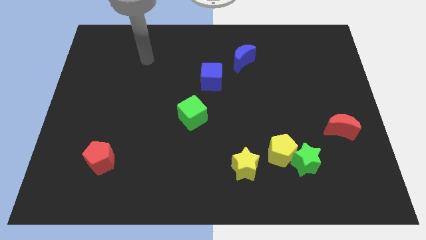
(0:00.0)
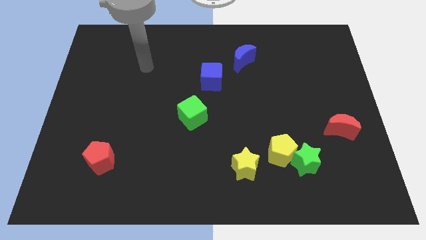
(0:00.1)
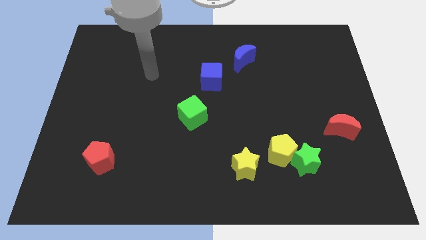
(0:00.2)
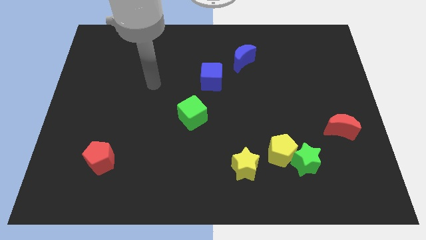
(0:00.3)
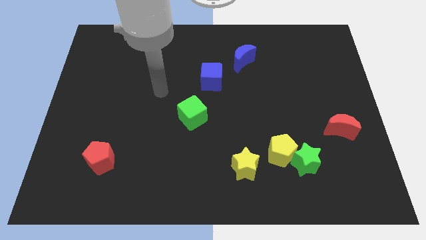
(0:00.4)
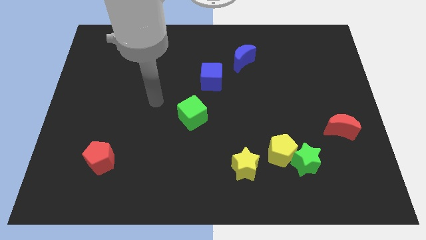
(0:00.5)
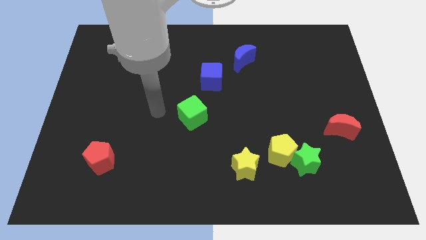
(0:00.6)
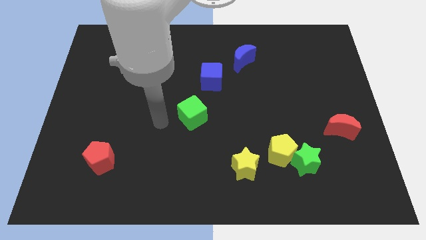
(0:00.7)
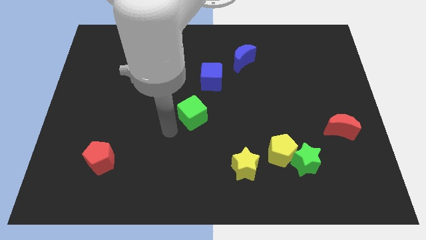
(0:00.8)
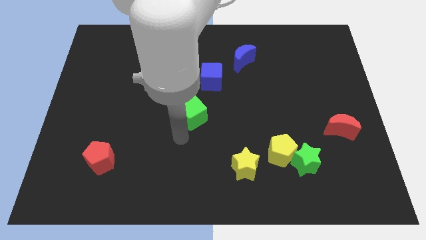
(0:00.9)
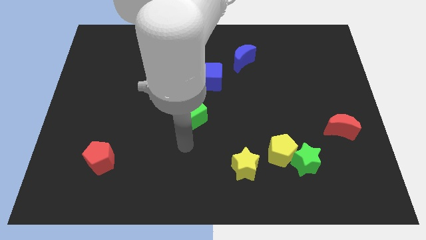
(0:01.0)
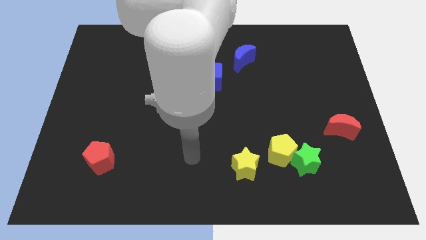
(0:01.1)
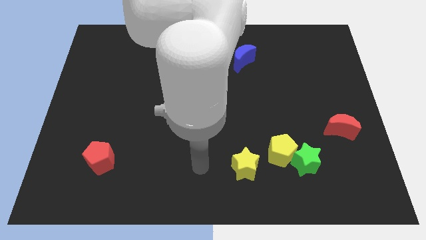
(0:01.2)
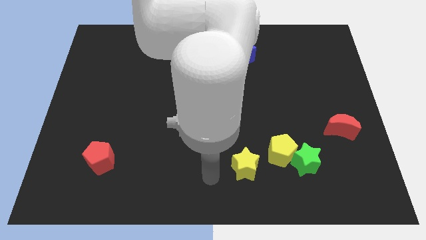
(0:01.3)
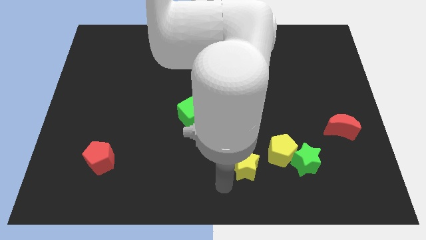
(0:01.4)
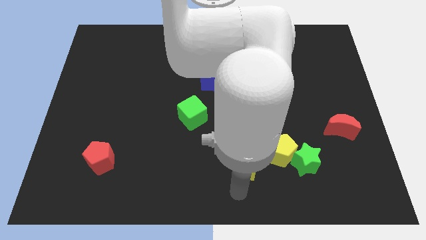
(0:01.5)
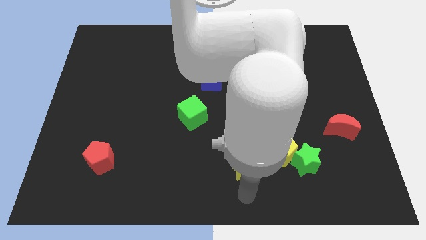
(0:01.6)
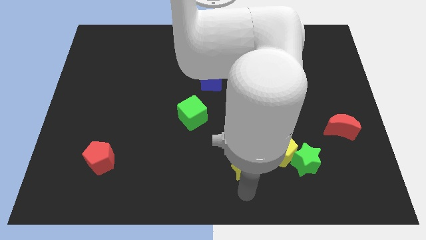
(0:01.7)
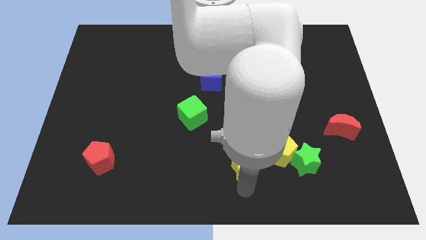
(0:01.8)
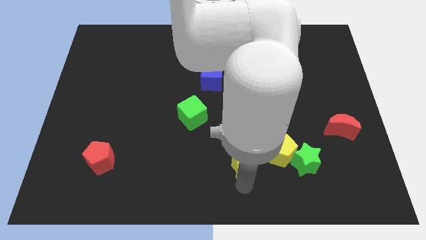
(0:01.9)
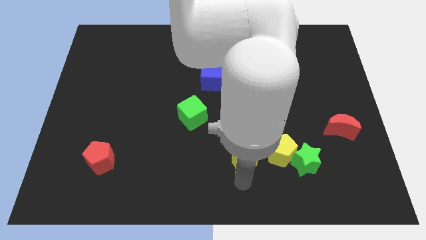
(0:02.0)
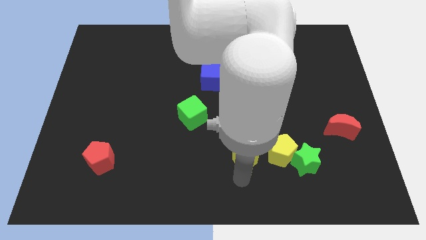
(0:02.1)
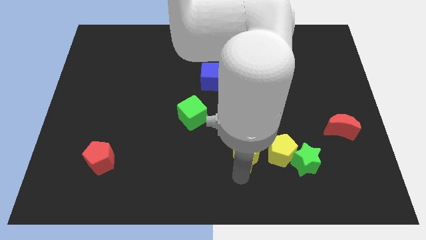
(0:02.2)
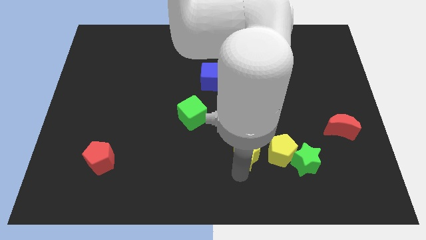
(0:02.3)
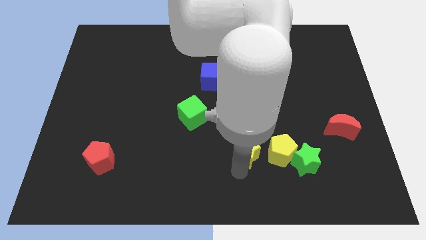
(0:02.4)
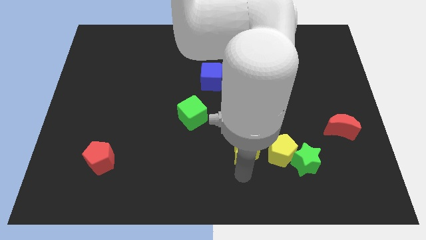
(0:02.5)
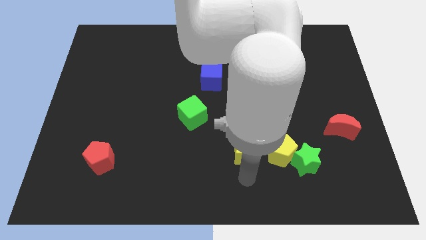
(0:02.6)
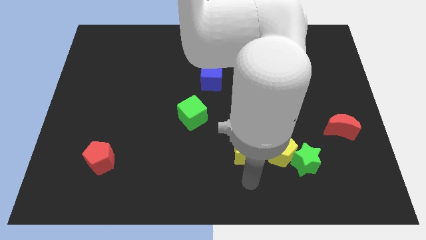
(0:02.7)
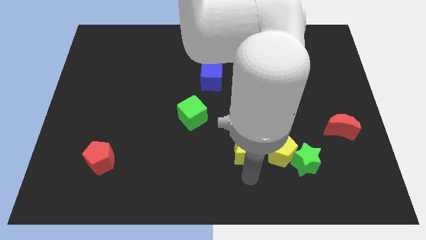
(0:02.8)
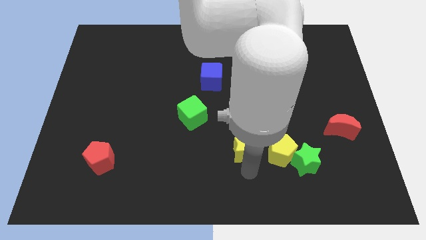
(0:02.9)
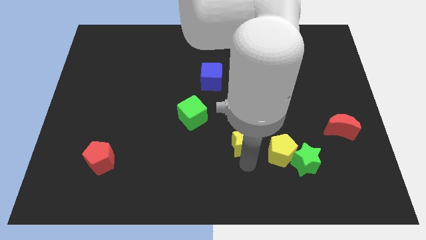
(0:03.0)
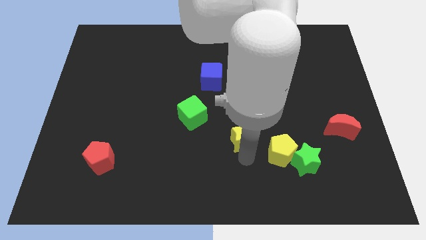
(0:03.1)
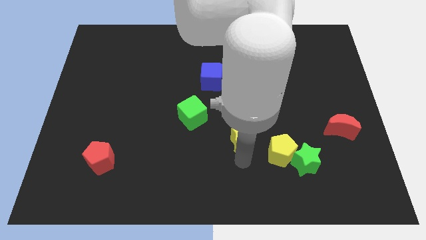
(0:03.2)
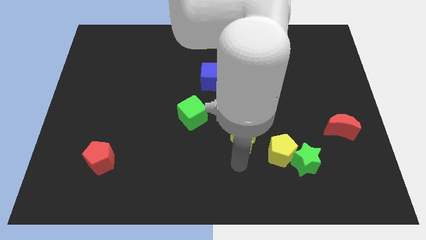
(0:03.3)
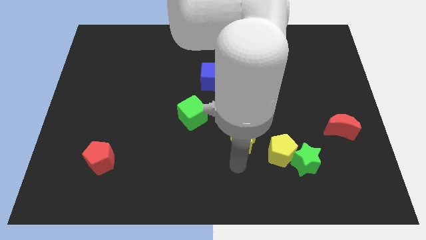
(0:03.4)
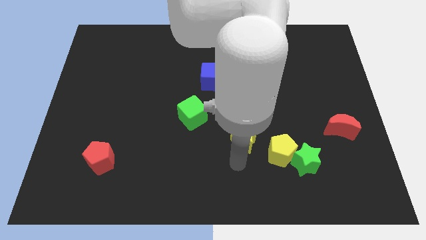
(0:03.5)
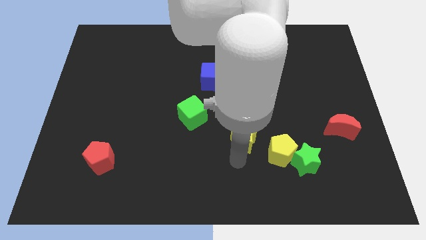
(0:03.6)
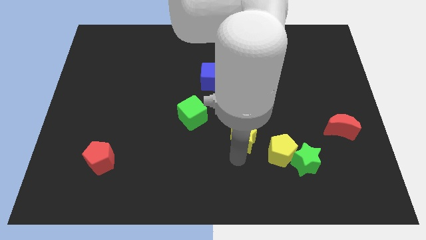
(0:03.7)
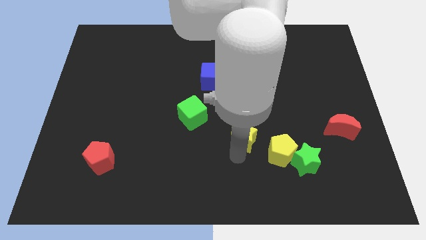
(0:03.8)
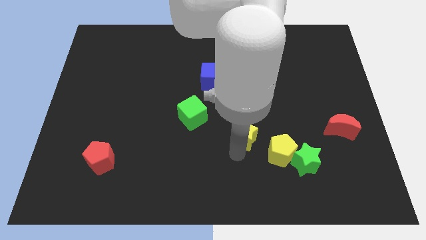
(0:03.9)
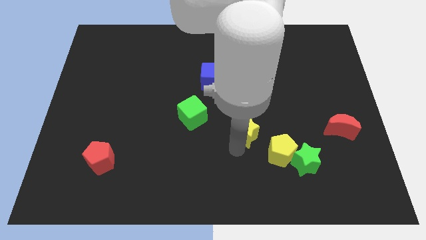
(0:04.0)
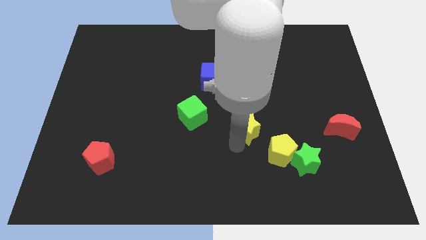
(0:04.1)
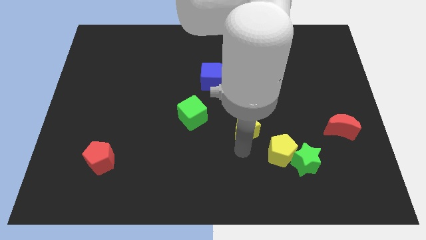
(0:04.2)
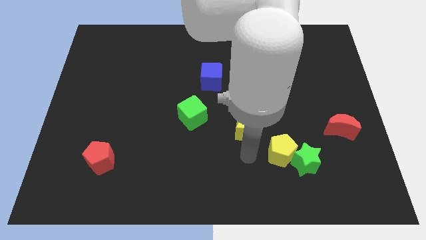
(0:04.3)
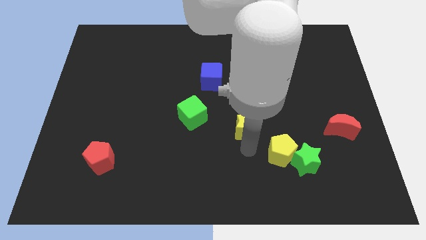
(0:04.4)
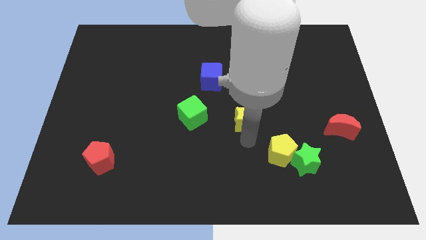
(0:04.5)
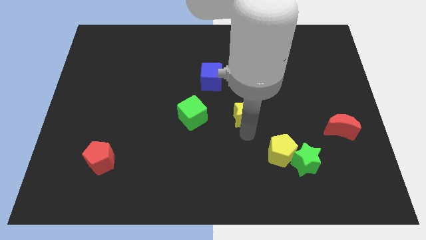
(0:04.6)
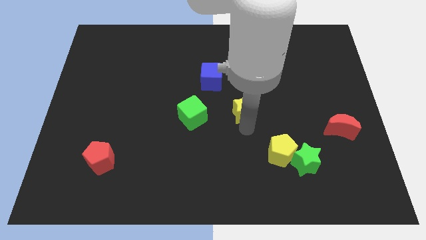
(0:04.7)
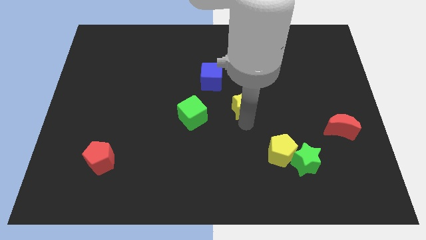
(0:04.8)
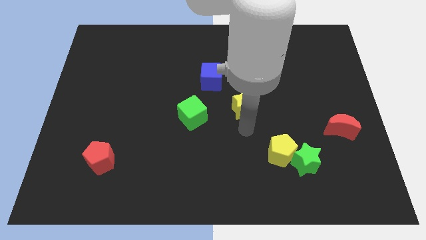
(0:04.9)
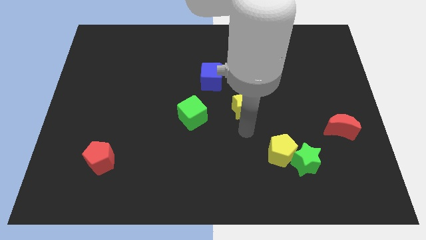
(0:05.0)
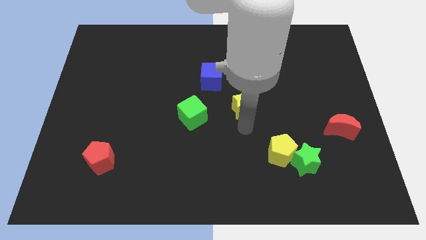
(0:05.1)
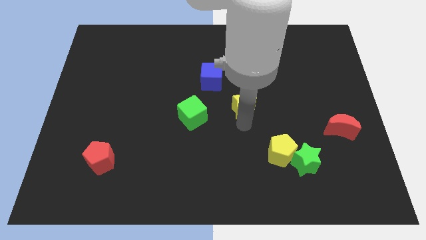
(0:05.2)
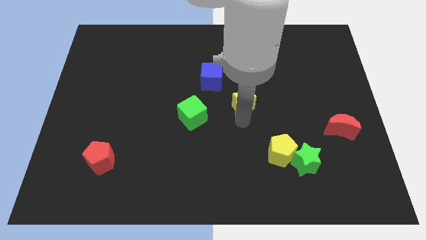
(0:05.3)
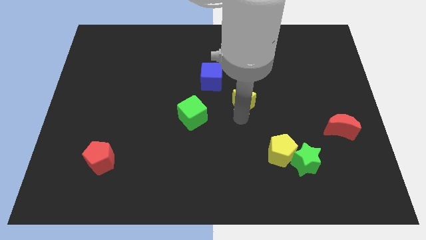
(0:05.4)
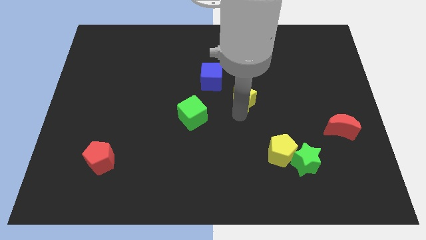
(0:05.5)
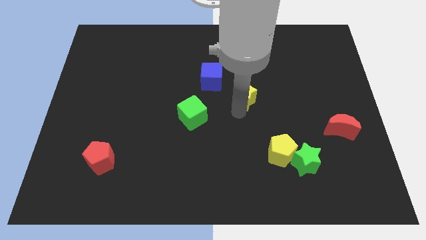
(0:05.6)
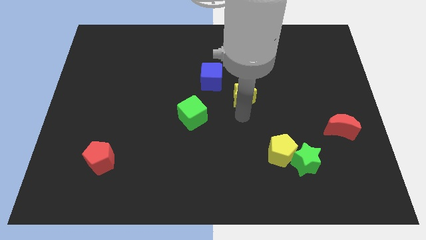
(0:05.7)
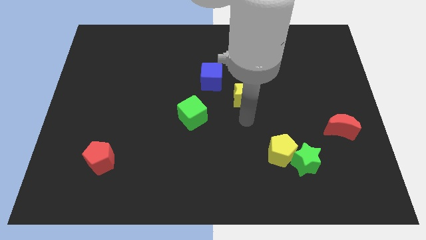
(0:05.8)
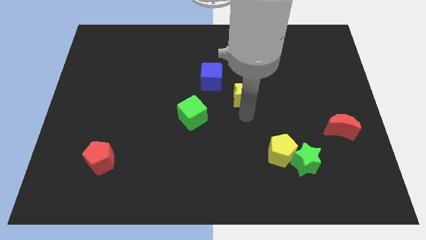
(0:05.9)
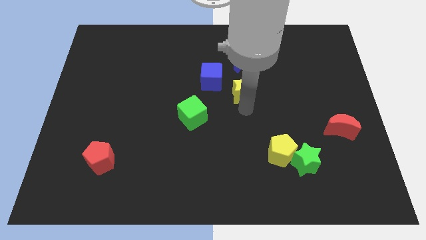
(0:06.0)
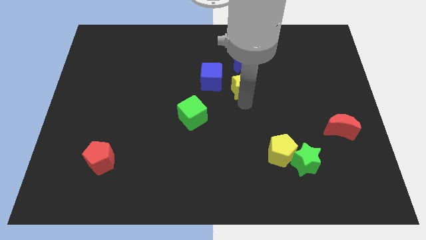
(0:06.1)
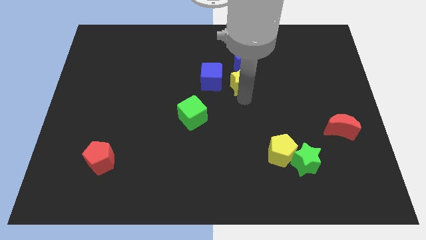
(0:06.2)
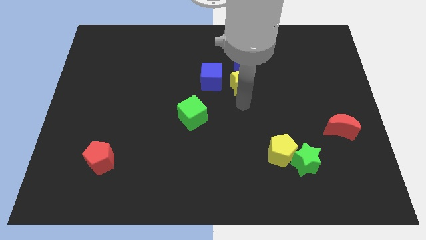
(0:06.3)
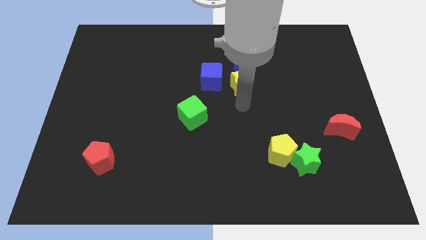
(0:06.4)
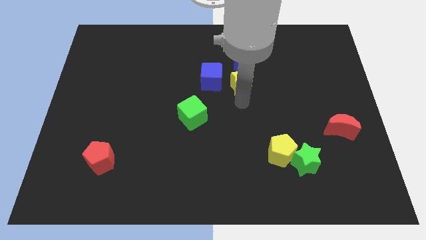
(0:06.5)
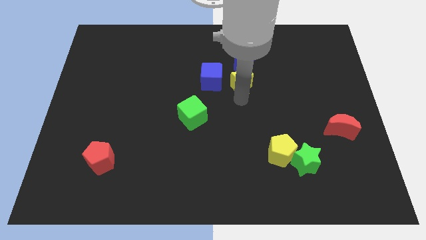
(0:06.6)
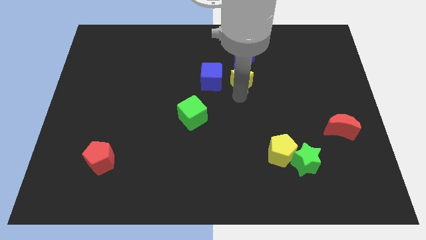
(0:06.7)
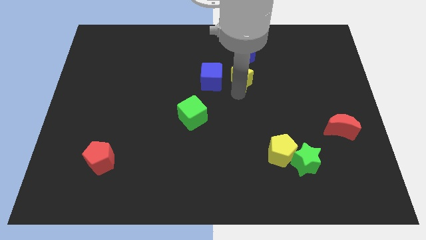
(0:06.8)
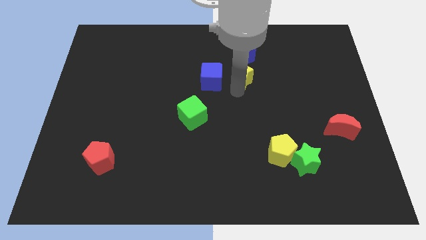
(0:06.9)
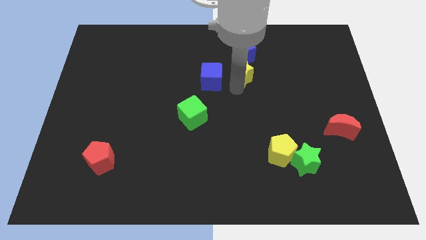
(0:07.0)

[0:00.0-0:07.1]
slide the yellow star next to the blue moon
